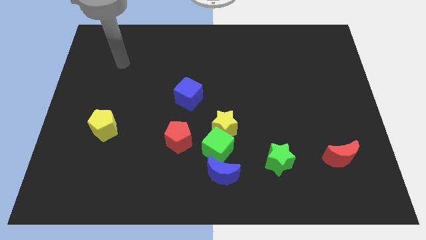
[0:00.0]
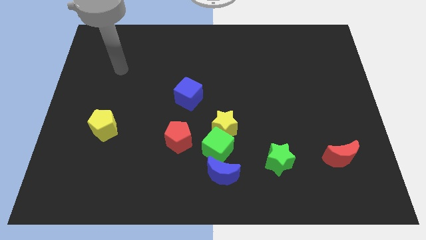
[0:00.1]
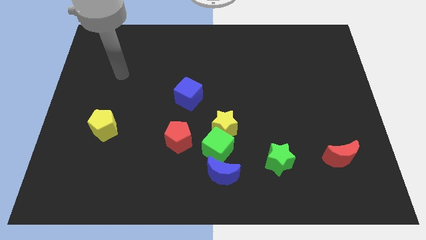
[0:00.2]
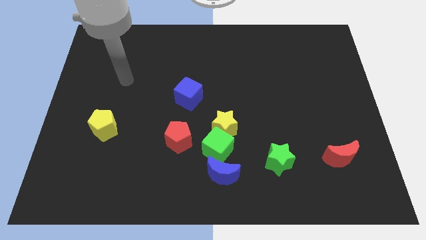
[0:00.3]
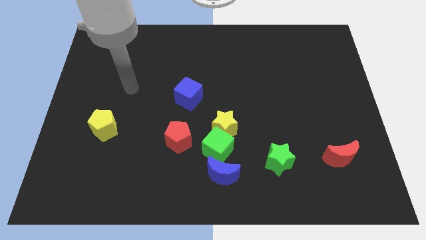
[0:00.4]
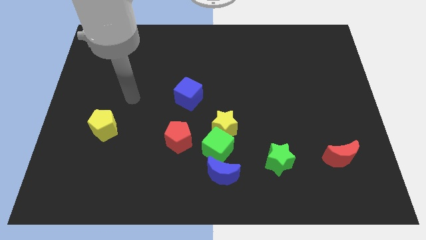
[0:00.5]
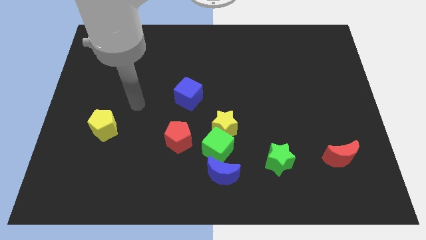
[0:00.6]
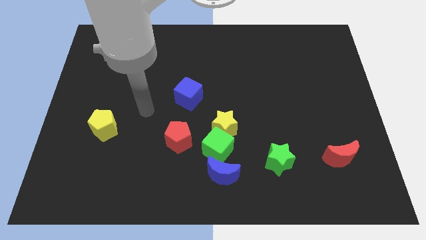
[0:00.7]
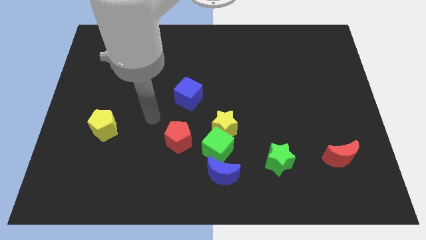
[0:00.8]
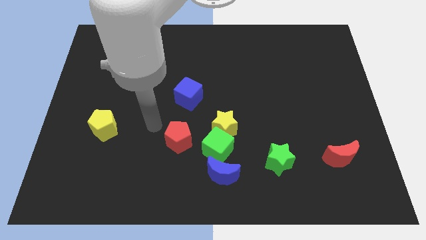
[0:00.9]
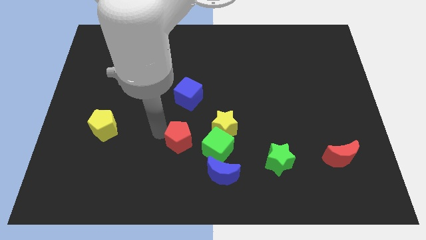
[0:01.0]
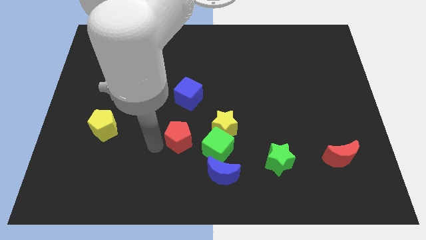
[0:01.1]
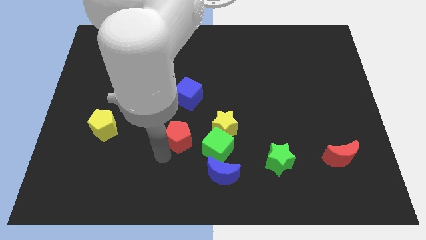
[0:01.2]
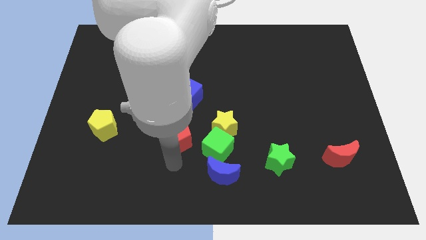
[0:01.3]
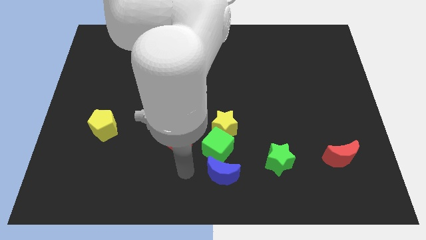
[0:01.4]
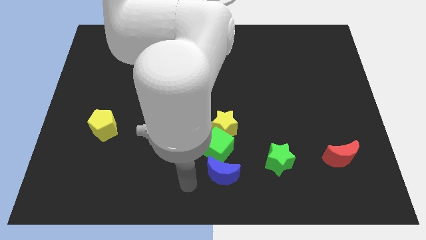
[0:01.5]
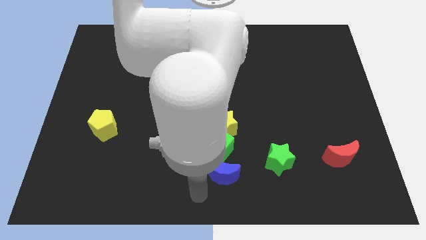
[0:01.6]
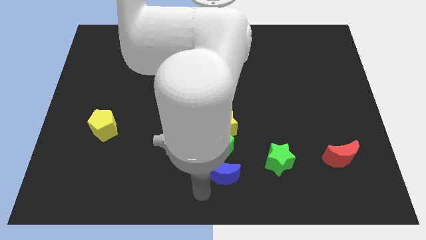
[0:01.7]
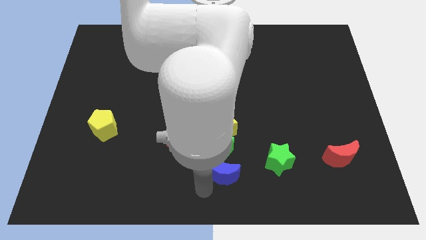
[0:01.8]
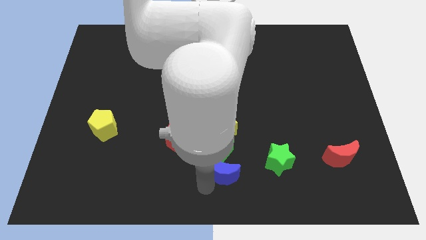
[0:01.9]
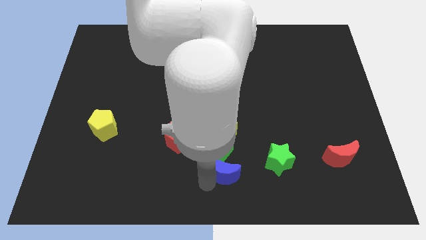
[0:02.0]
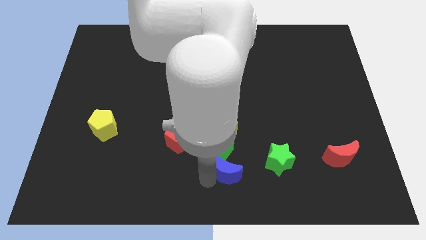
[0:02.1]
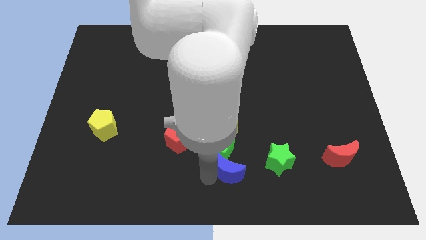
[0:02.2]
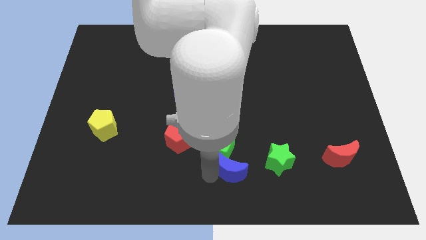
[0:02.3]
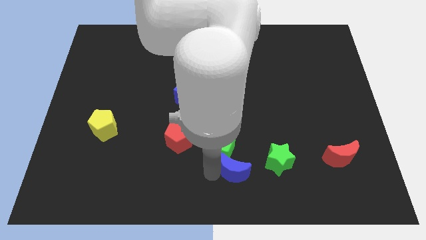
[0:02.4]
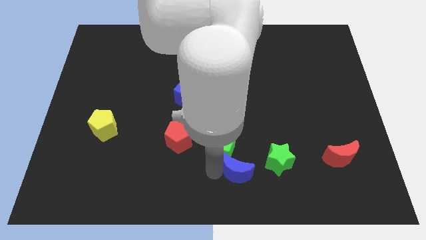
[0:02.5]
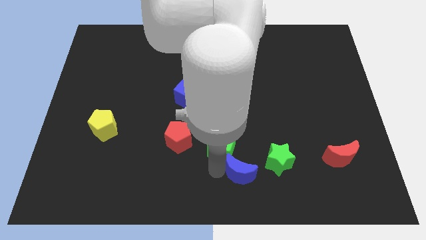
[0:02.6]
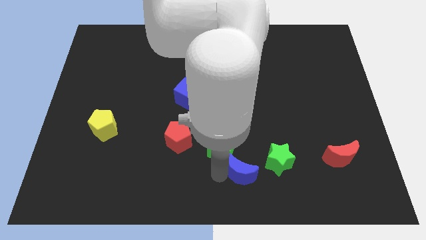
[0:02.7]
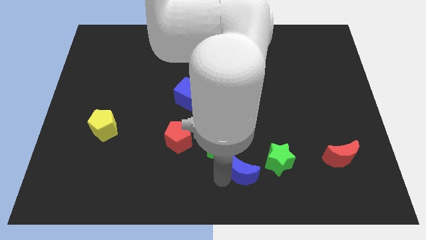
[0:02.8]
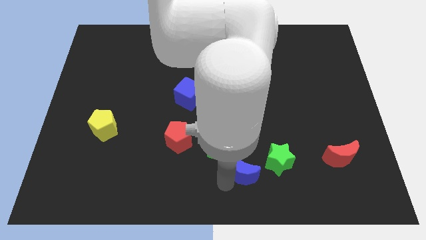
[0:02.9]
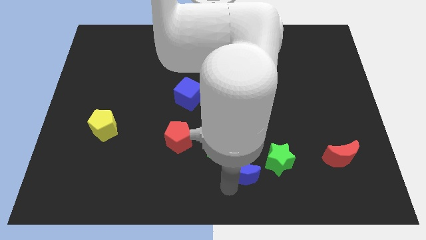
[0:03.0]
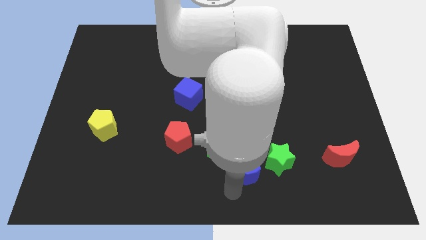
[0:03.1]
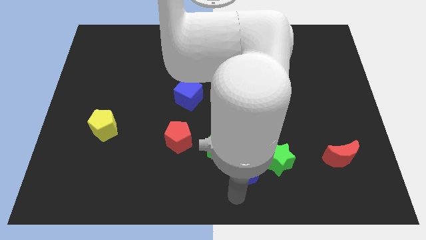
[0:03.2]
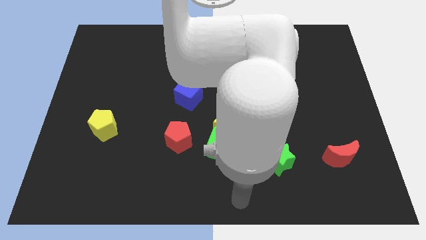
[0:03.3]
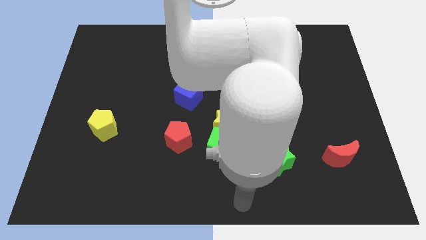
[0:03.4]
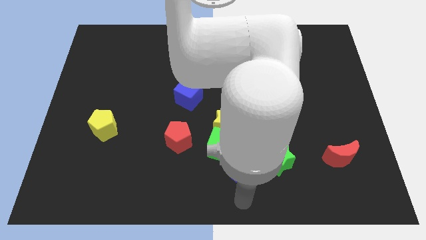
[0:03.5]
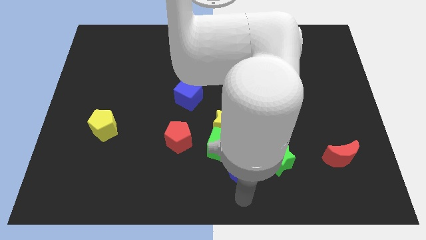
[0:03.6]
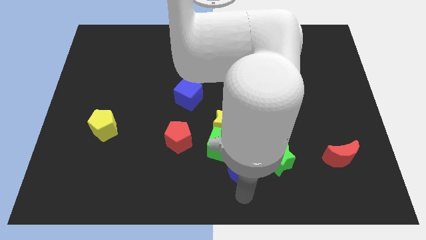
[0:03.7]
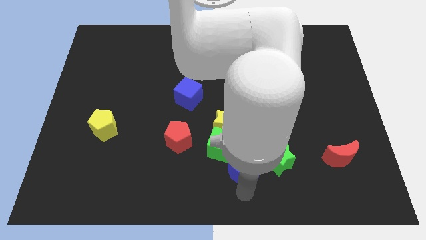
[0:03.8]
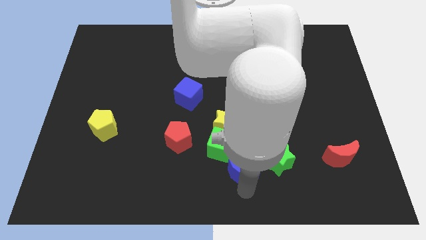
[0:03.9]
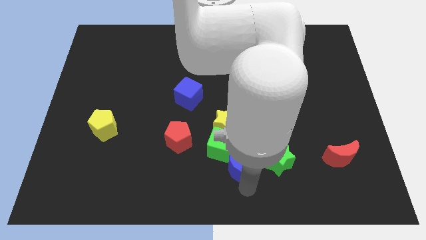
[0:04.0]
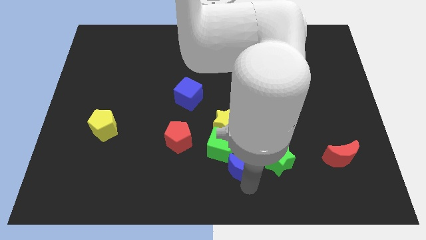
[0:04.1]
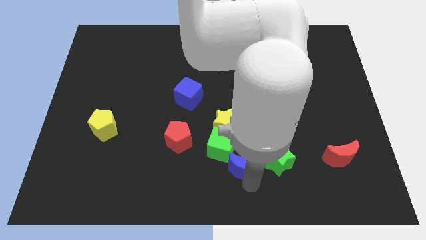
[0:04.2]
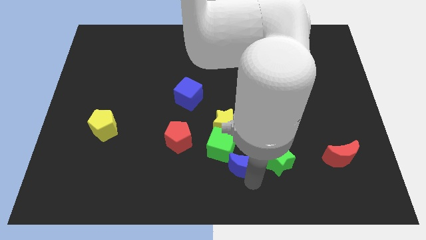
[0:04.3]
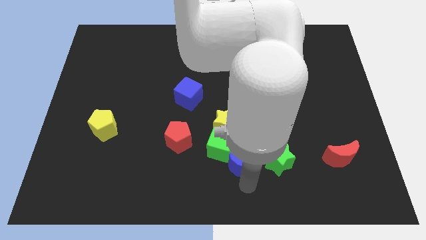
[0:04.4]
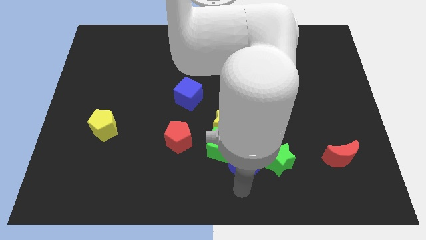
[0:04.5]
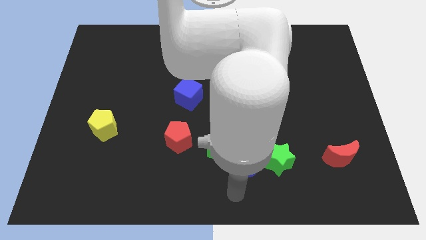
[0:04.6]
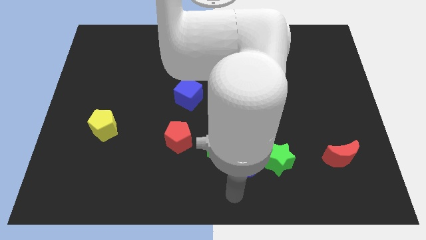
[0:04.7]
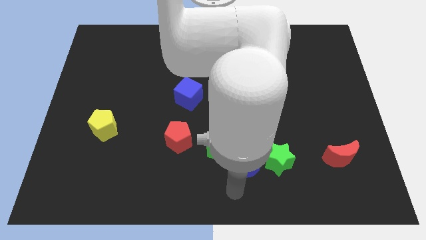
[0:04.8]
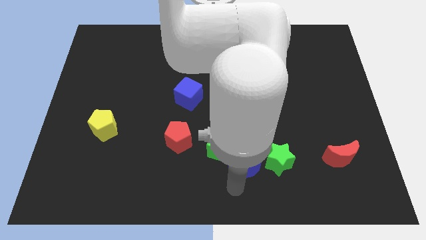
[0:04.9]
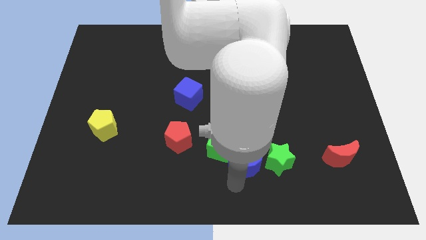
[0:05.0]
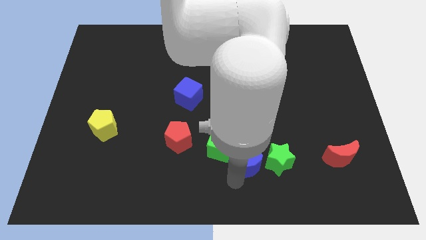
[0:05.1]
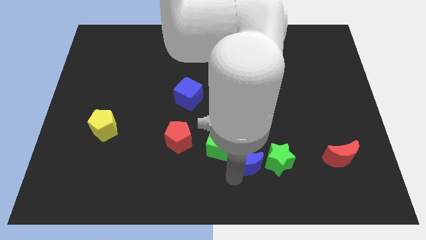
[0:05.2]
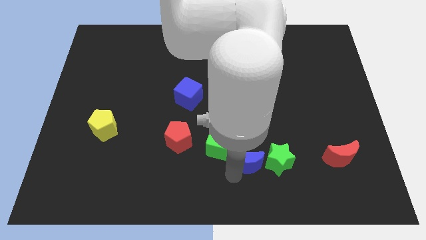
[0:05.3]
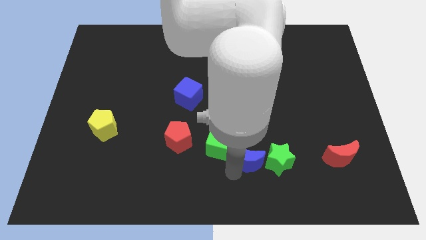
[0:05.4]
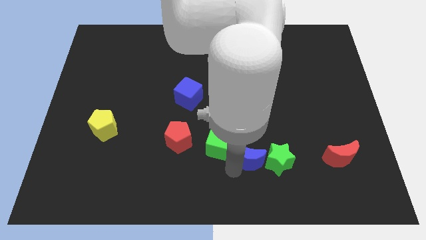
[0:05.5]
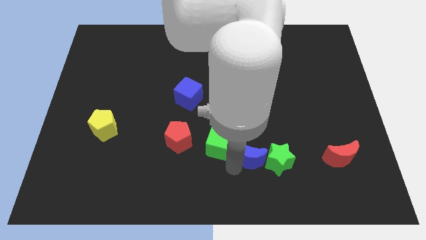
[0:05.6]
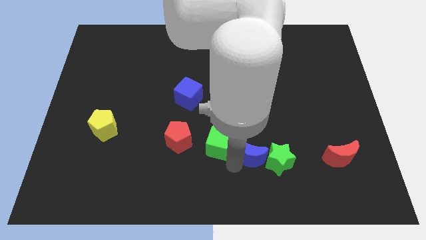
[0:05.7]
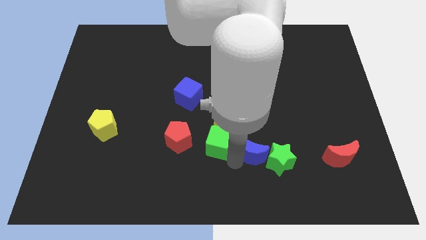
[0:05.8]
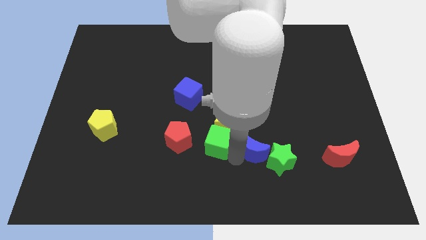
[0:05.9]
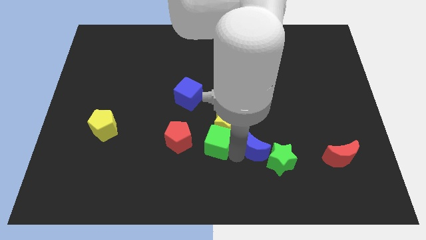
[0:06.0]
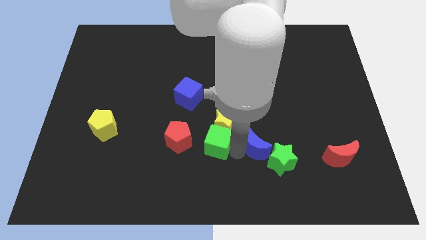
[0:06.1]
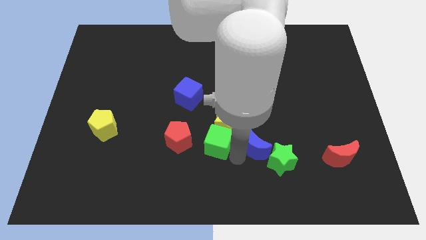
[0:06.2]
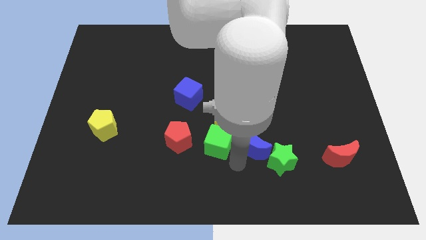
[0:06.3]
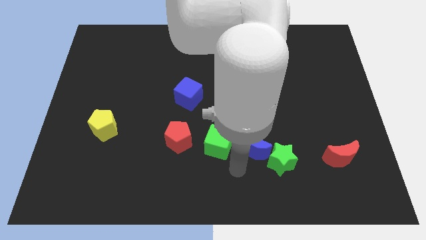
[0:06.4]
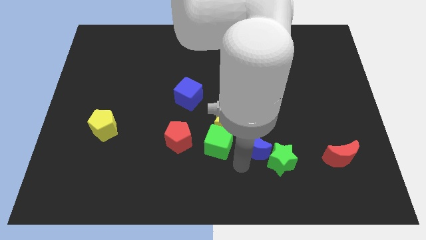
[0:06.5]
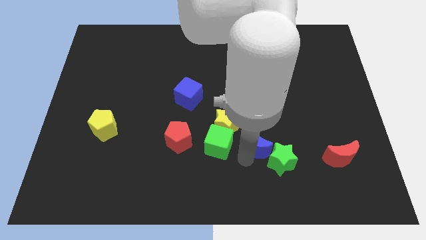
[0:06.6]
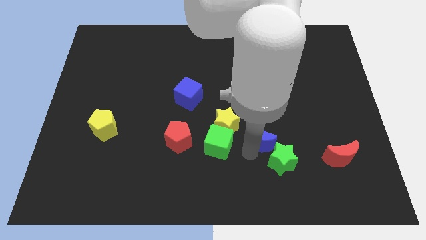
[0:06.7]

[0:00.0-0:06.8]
slide the blue moon to the right side of the yellow star
